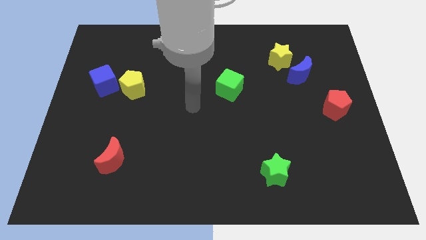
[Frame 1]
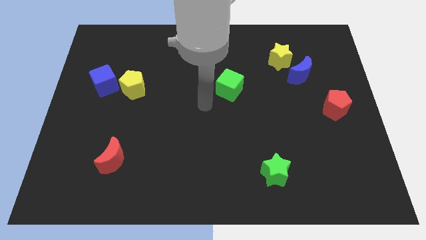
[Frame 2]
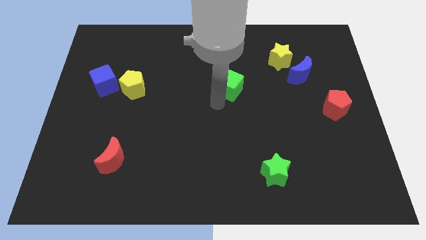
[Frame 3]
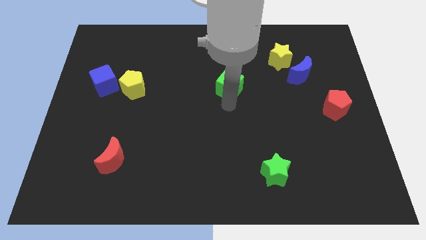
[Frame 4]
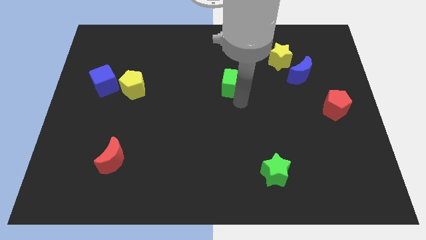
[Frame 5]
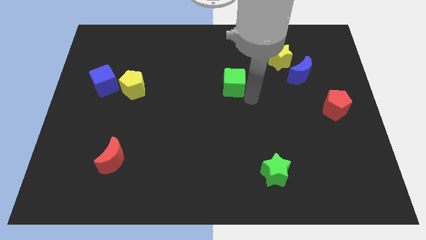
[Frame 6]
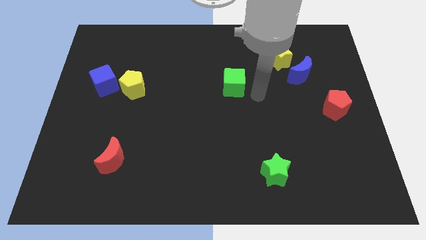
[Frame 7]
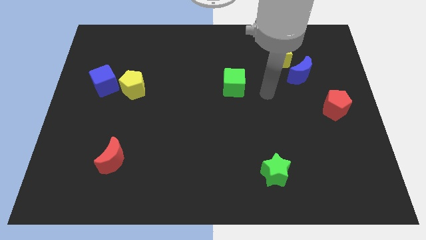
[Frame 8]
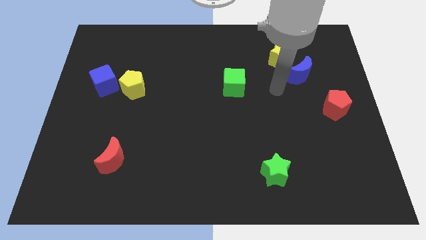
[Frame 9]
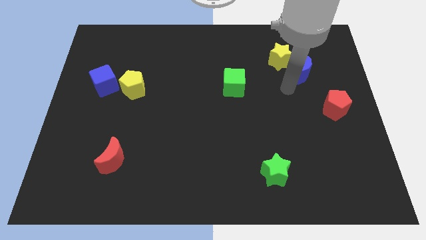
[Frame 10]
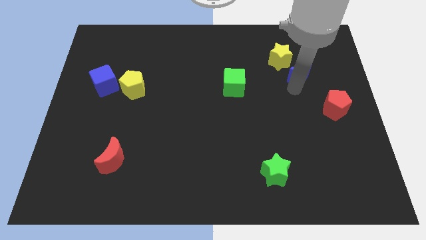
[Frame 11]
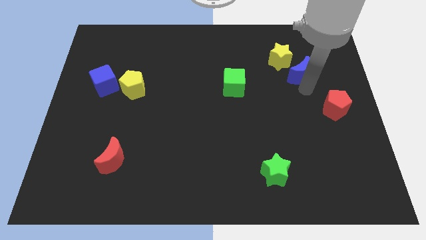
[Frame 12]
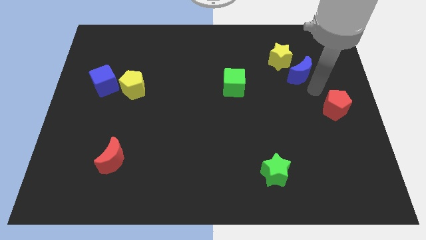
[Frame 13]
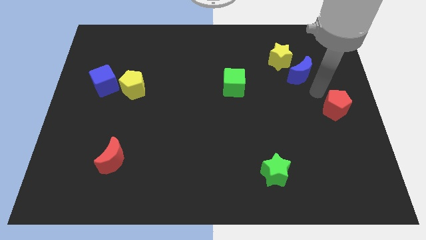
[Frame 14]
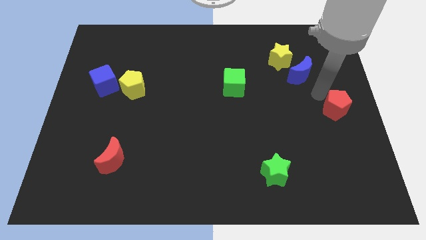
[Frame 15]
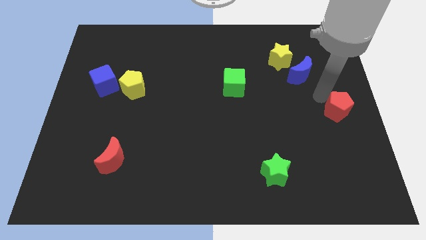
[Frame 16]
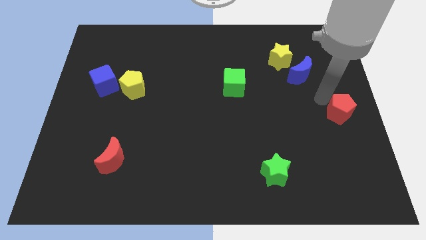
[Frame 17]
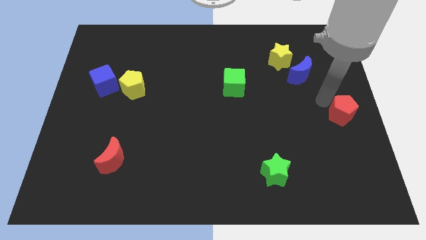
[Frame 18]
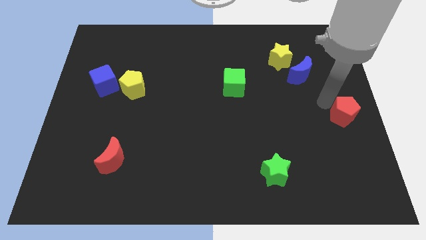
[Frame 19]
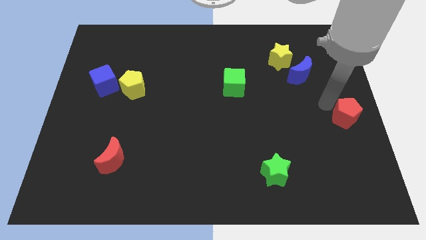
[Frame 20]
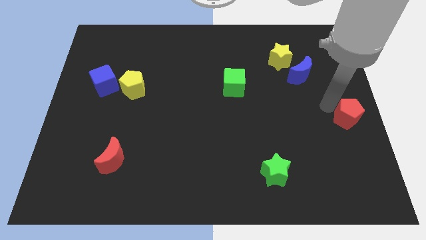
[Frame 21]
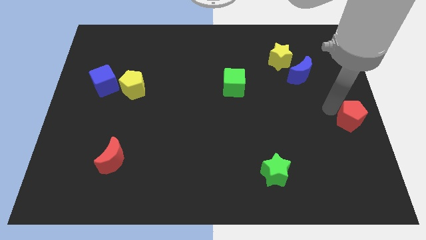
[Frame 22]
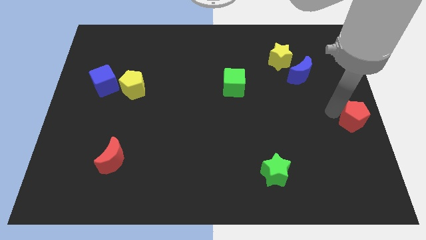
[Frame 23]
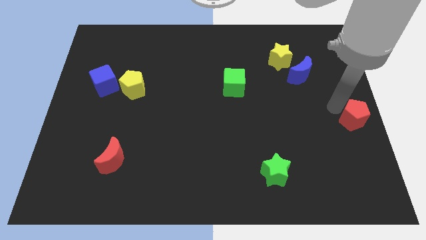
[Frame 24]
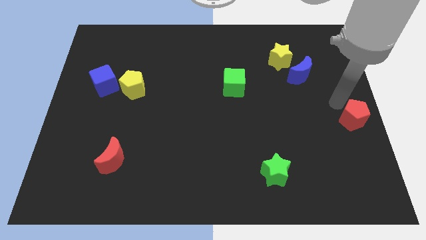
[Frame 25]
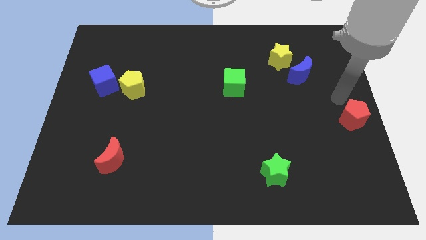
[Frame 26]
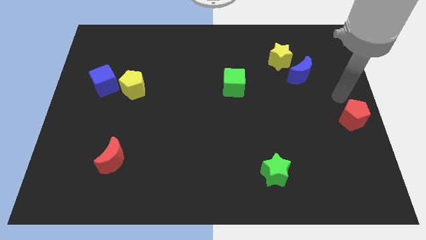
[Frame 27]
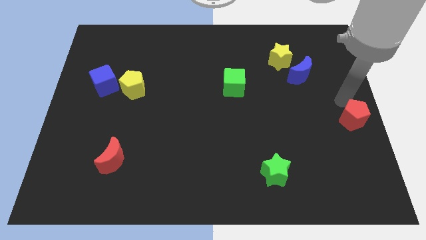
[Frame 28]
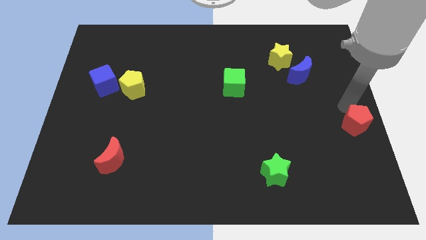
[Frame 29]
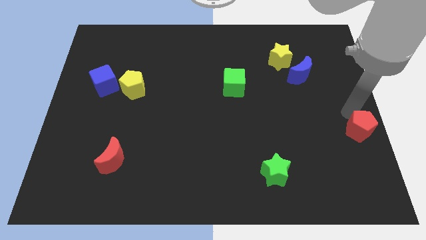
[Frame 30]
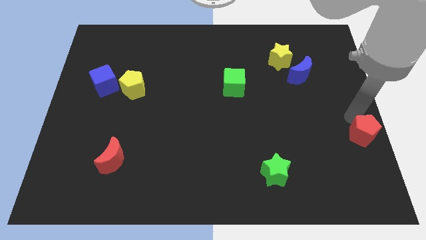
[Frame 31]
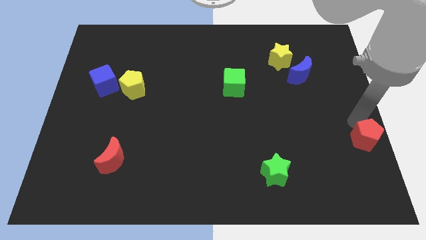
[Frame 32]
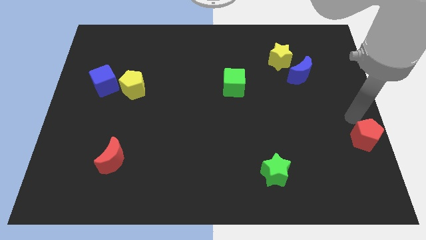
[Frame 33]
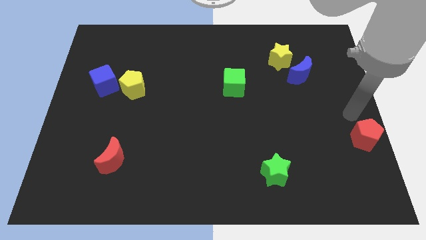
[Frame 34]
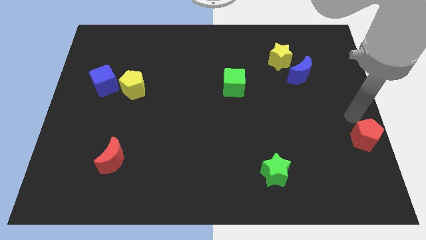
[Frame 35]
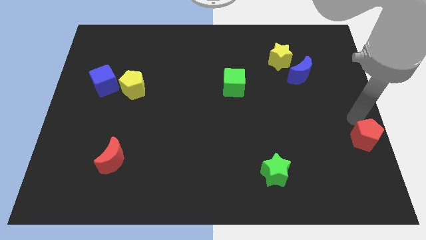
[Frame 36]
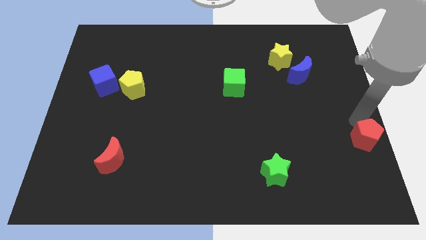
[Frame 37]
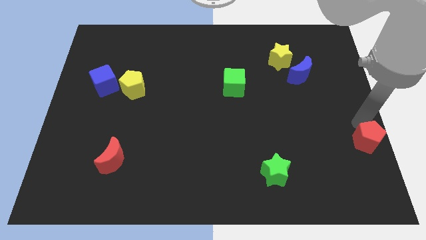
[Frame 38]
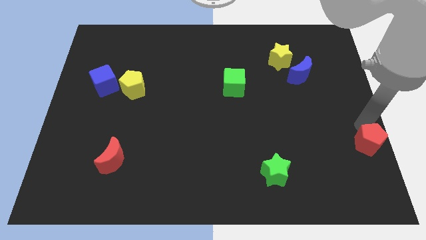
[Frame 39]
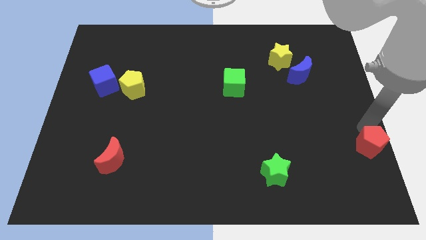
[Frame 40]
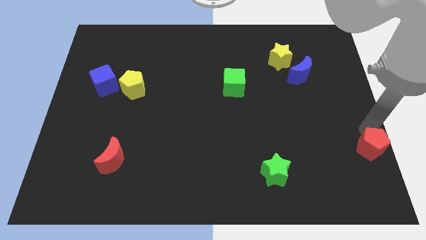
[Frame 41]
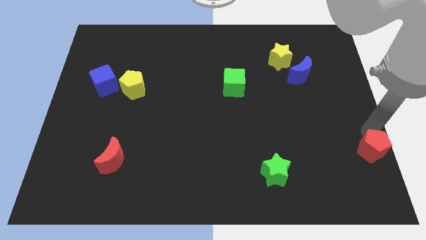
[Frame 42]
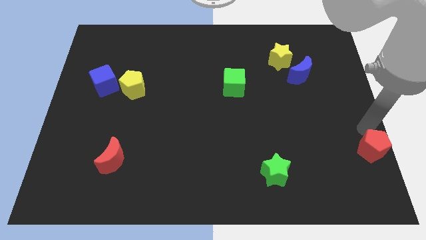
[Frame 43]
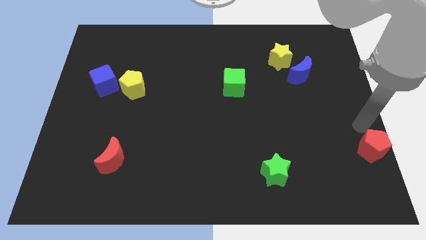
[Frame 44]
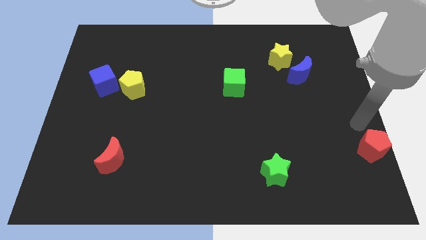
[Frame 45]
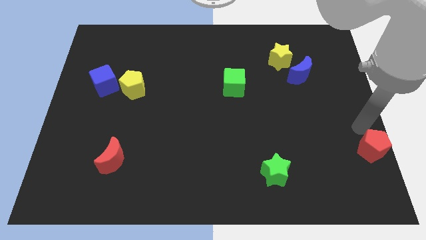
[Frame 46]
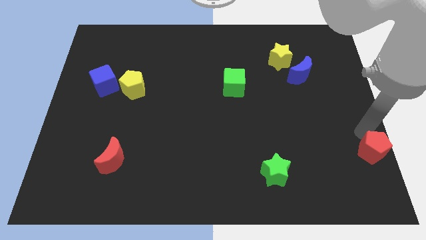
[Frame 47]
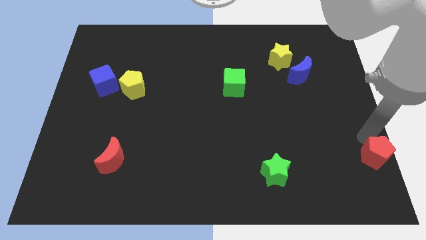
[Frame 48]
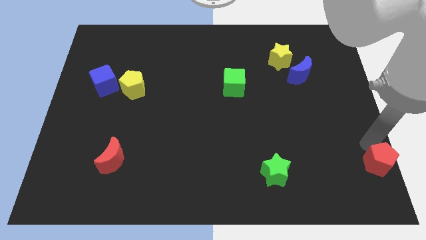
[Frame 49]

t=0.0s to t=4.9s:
put the red pentagon to the bottom right corner

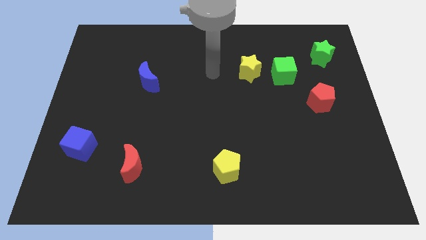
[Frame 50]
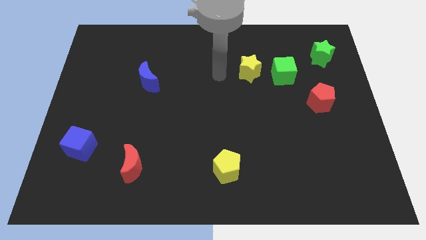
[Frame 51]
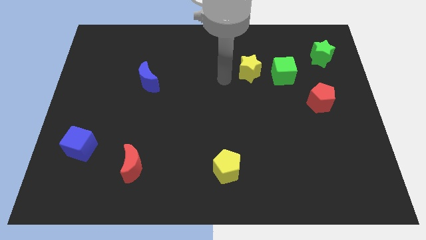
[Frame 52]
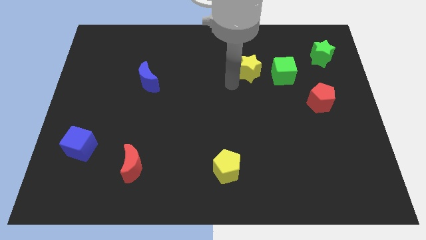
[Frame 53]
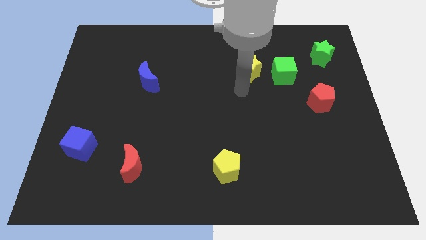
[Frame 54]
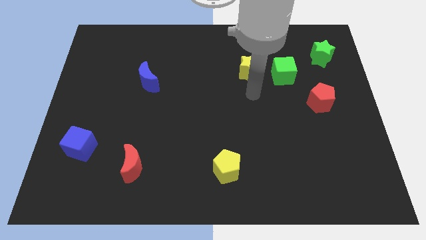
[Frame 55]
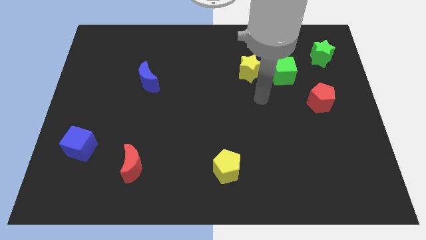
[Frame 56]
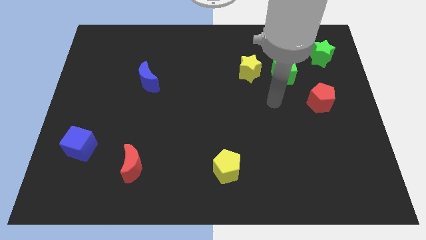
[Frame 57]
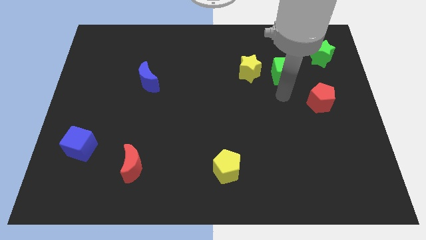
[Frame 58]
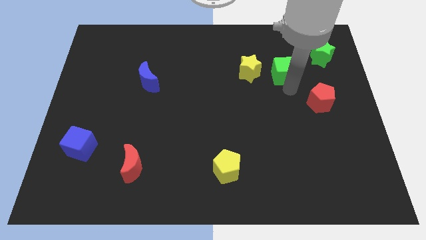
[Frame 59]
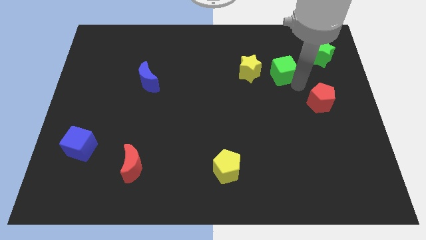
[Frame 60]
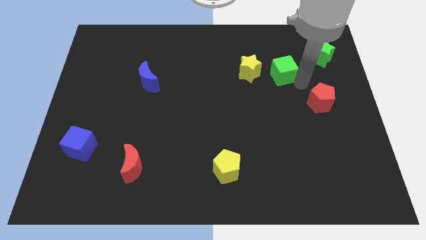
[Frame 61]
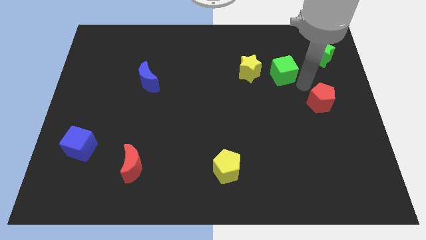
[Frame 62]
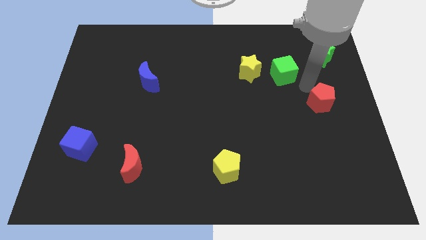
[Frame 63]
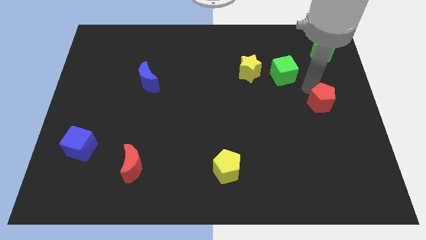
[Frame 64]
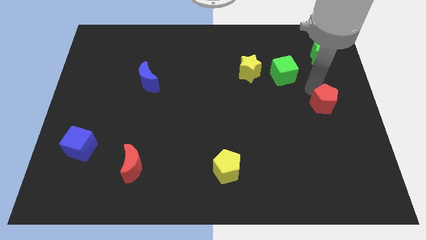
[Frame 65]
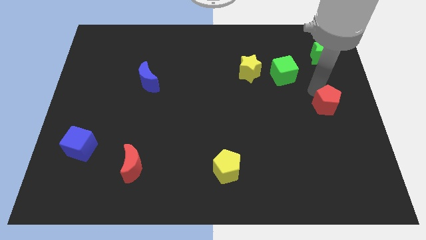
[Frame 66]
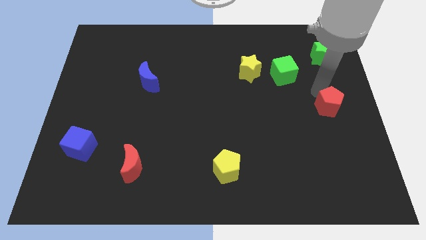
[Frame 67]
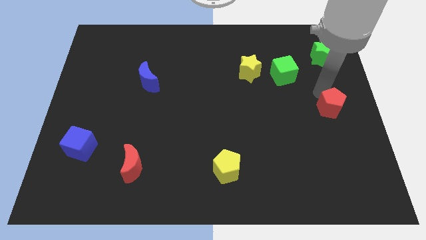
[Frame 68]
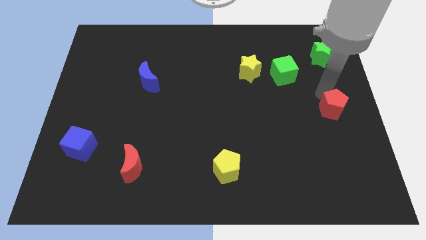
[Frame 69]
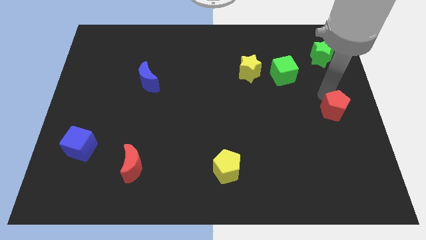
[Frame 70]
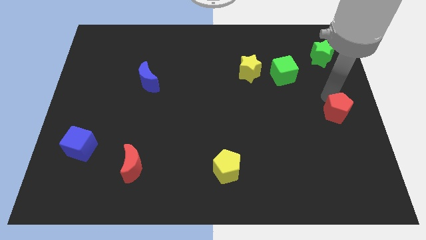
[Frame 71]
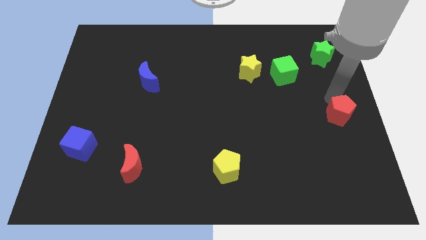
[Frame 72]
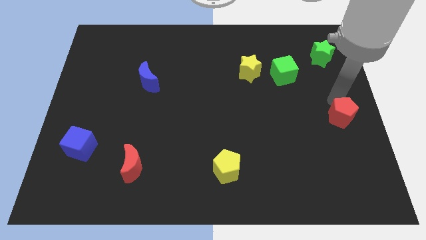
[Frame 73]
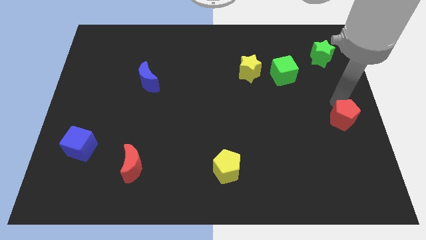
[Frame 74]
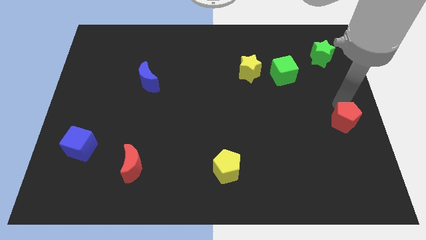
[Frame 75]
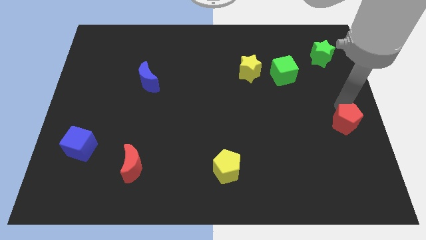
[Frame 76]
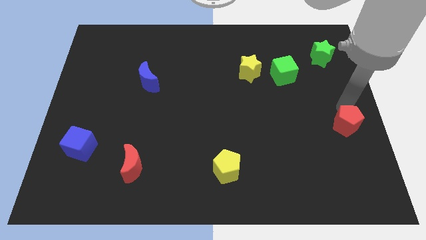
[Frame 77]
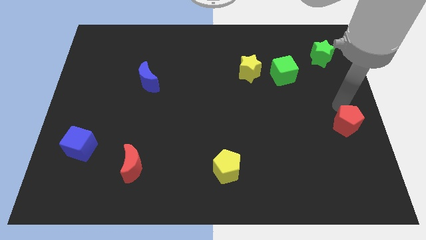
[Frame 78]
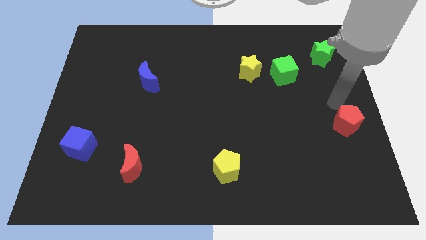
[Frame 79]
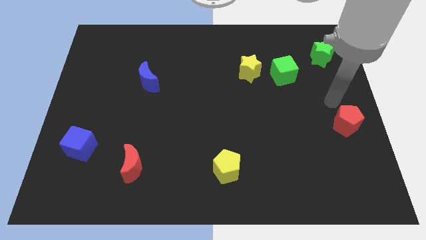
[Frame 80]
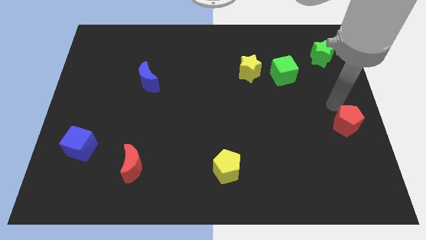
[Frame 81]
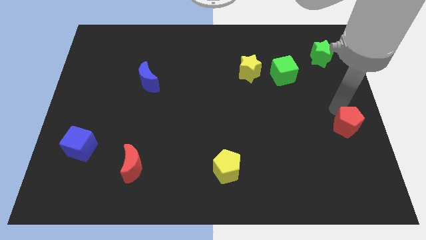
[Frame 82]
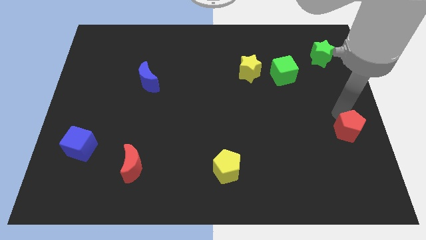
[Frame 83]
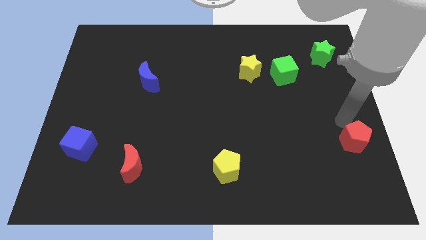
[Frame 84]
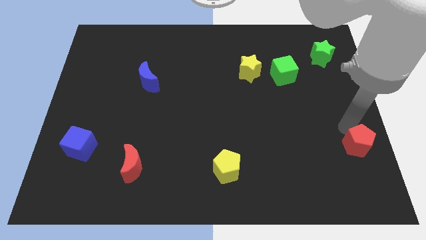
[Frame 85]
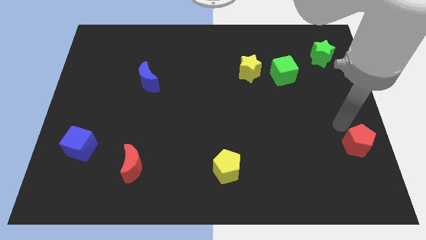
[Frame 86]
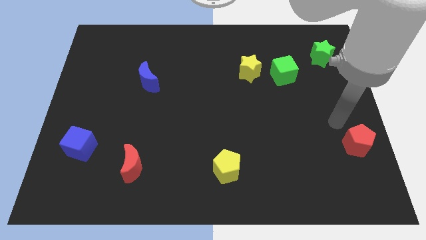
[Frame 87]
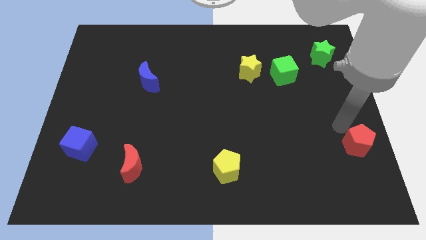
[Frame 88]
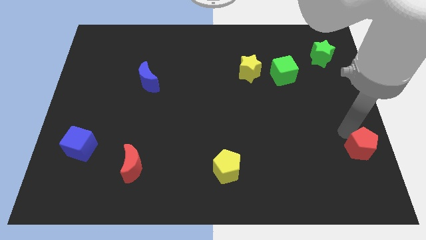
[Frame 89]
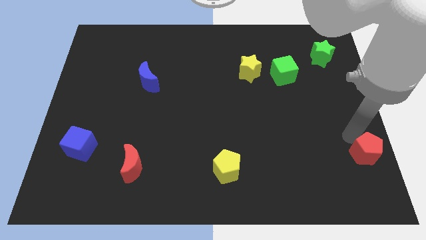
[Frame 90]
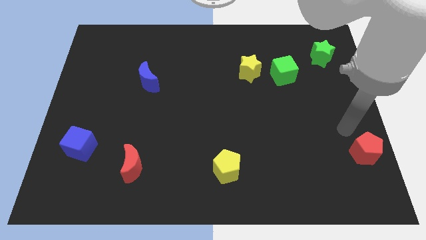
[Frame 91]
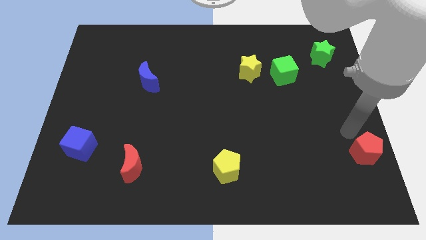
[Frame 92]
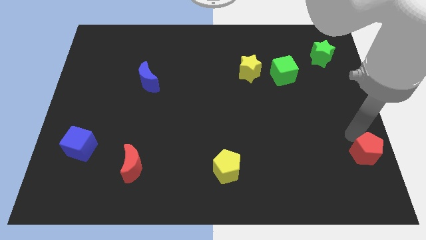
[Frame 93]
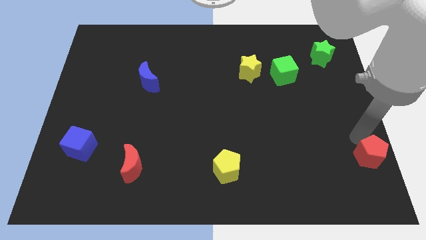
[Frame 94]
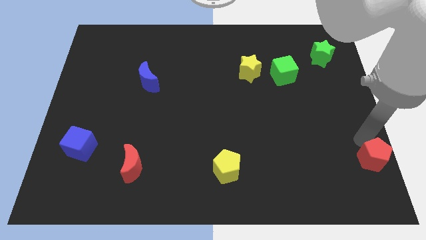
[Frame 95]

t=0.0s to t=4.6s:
slide the red pentagon to the bottom right of the board
